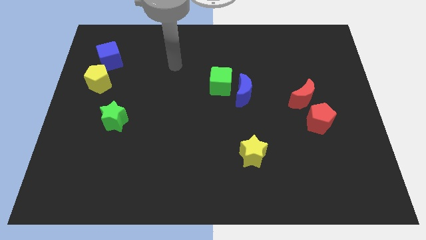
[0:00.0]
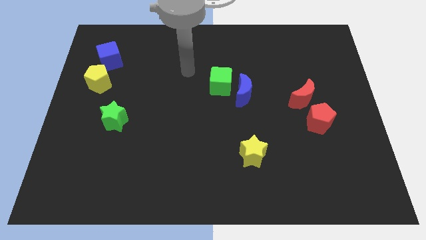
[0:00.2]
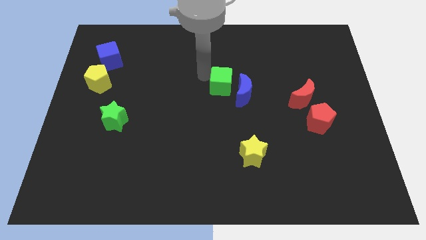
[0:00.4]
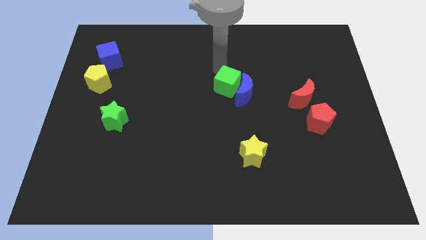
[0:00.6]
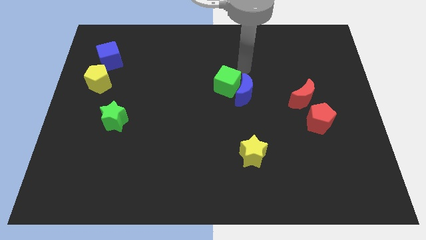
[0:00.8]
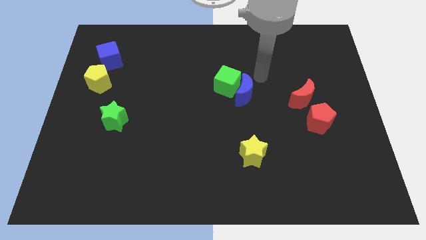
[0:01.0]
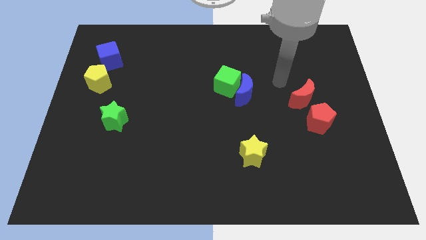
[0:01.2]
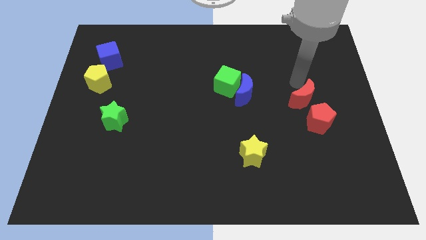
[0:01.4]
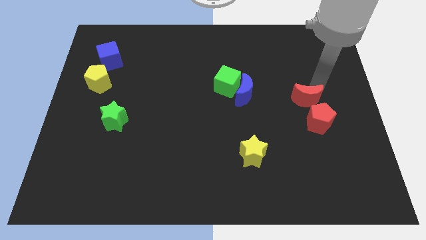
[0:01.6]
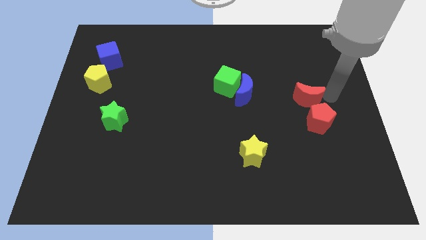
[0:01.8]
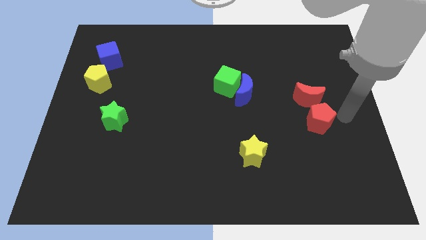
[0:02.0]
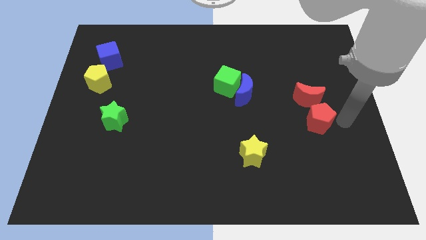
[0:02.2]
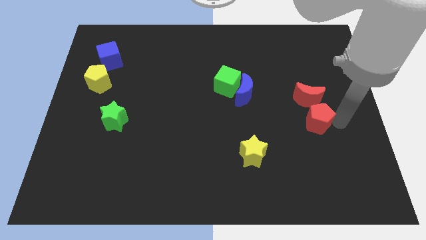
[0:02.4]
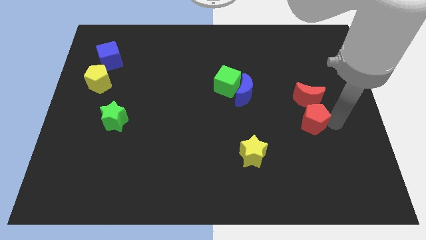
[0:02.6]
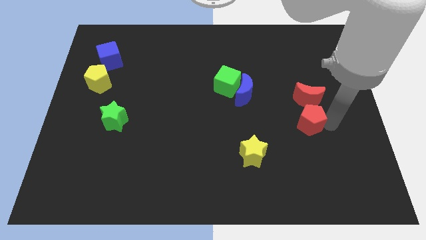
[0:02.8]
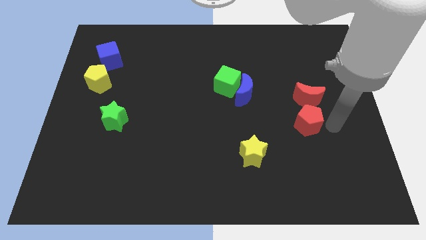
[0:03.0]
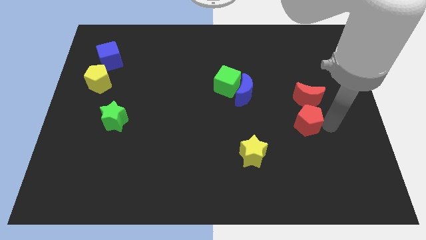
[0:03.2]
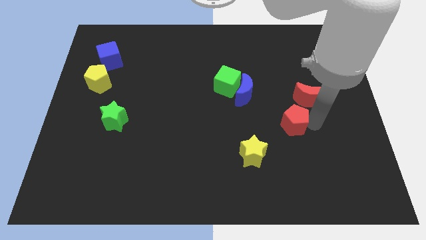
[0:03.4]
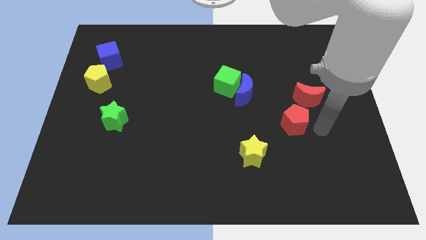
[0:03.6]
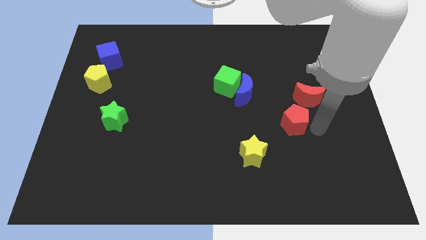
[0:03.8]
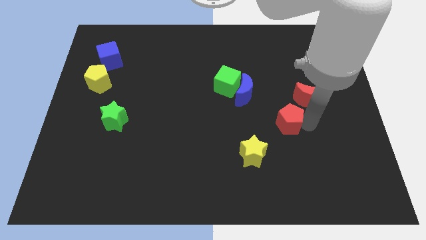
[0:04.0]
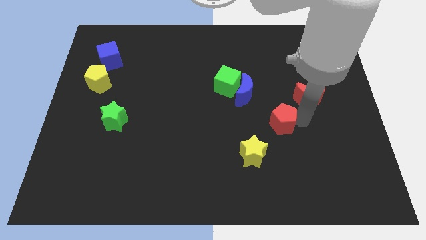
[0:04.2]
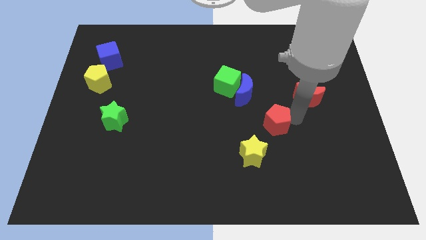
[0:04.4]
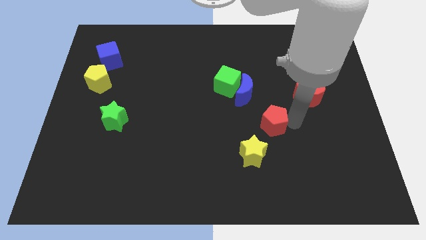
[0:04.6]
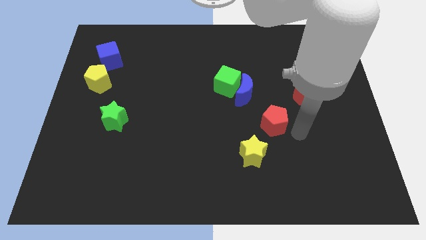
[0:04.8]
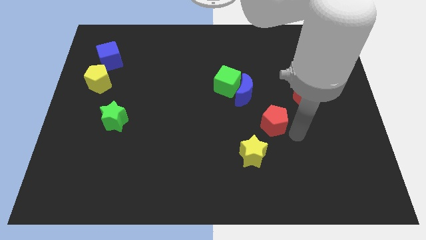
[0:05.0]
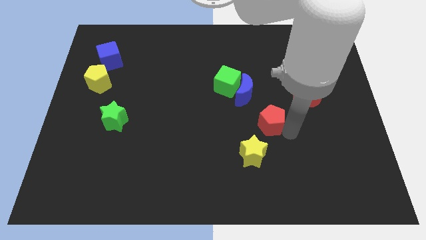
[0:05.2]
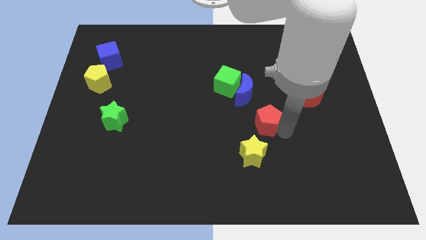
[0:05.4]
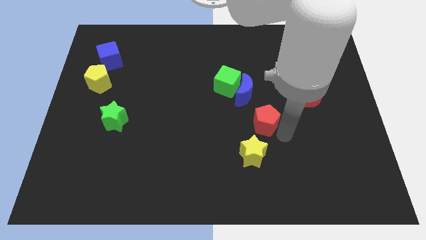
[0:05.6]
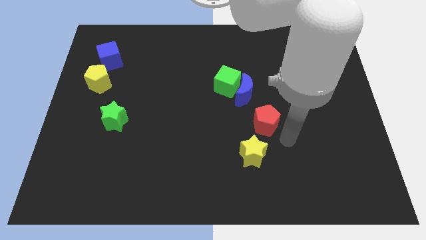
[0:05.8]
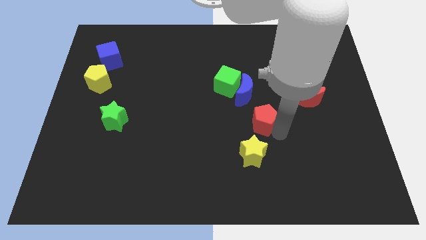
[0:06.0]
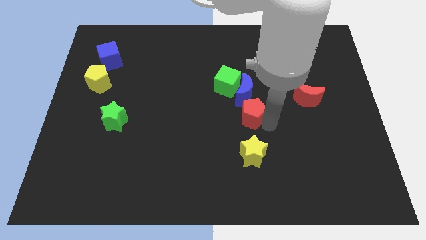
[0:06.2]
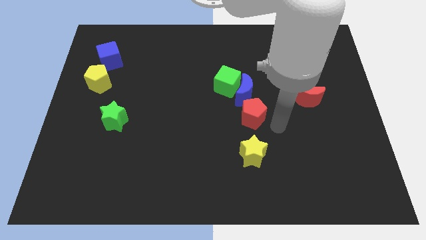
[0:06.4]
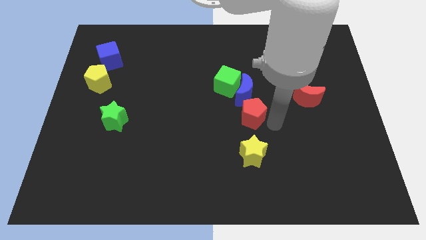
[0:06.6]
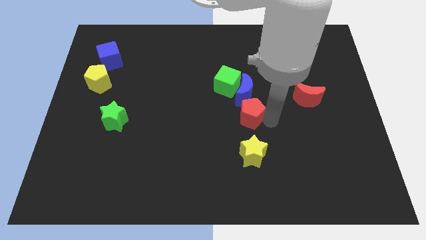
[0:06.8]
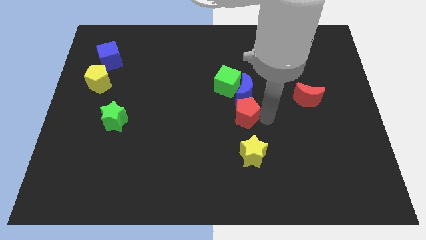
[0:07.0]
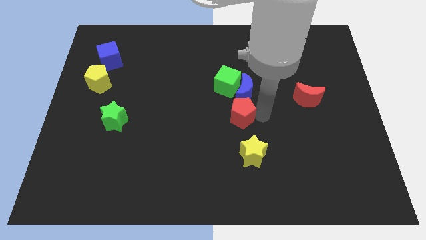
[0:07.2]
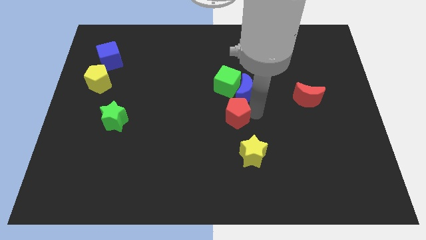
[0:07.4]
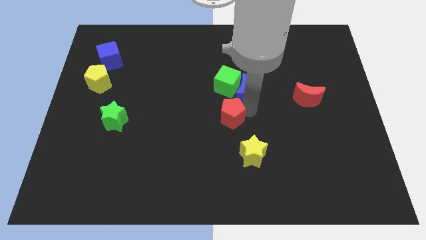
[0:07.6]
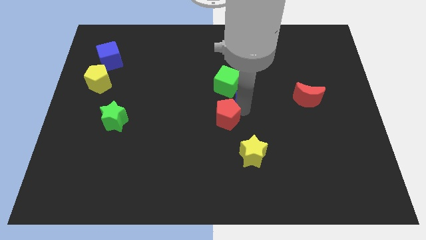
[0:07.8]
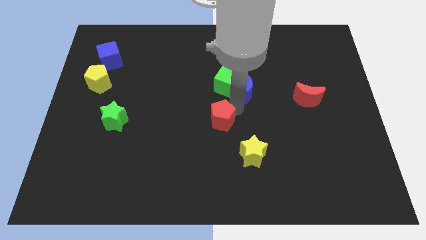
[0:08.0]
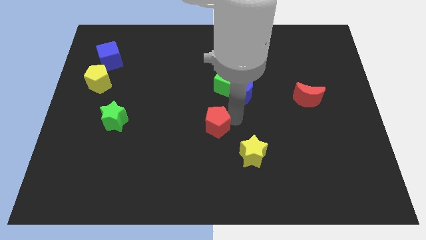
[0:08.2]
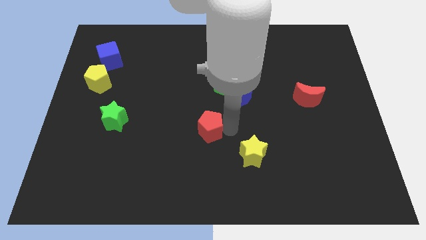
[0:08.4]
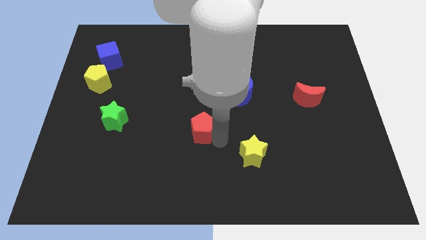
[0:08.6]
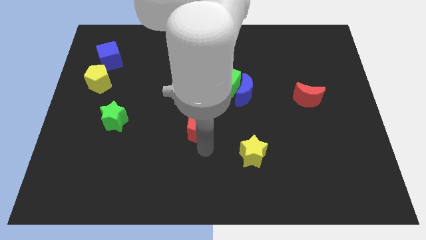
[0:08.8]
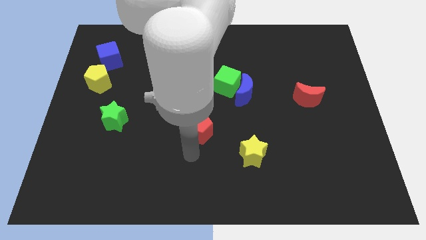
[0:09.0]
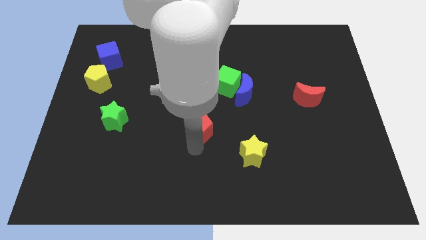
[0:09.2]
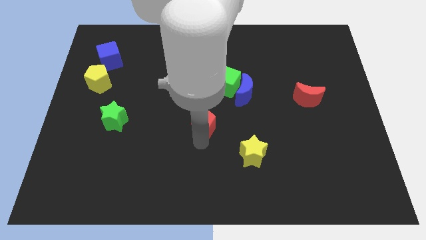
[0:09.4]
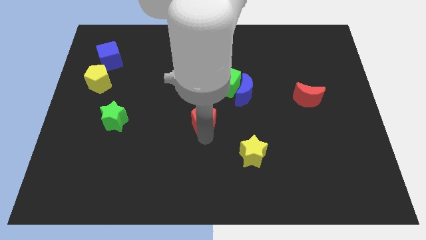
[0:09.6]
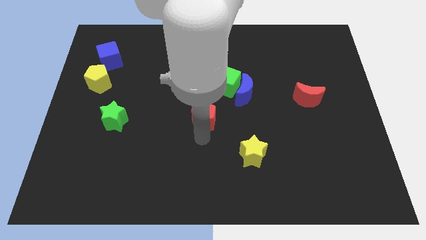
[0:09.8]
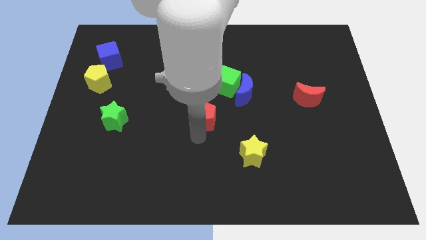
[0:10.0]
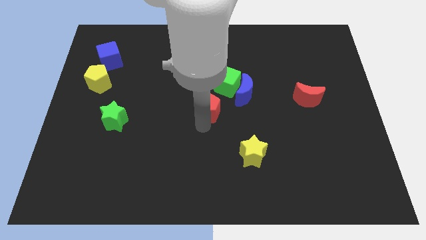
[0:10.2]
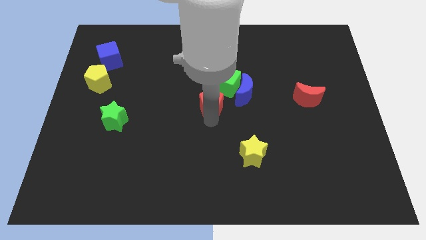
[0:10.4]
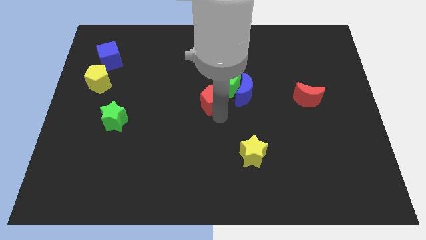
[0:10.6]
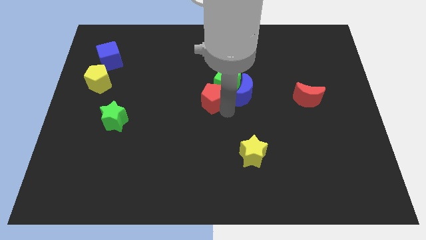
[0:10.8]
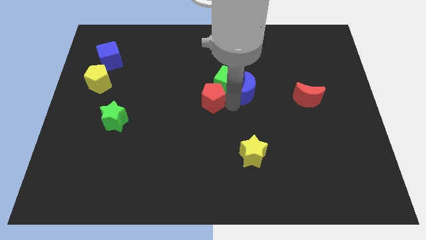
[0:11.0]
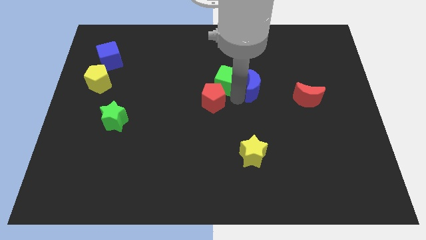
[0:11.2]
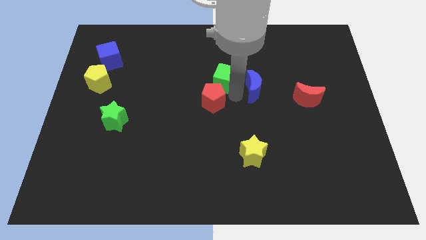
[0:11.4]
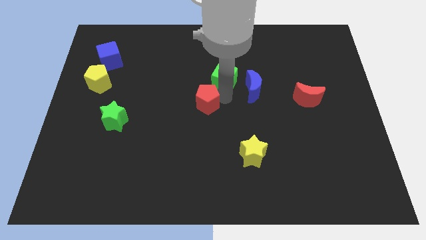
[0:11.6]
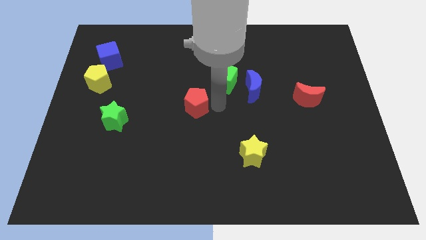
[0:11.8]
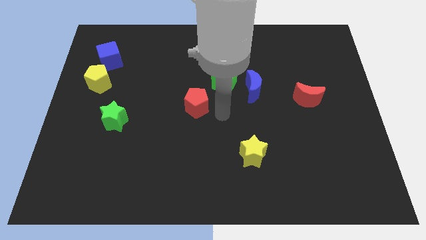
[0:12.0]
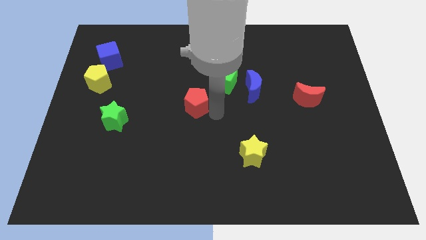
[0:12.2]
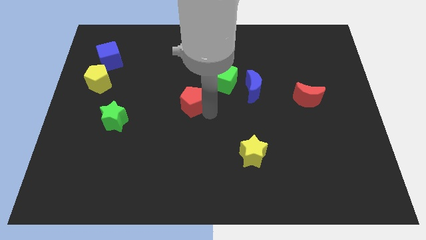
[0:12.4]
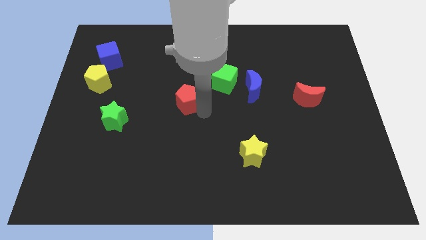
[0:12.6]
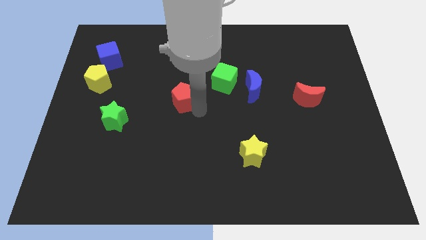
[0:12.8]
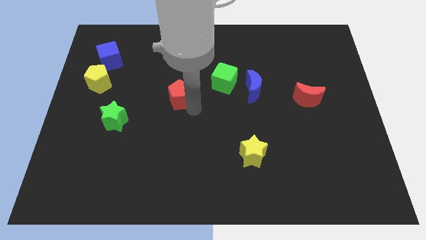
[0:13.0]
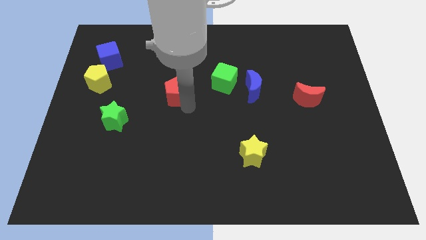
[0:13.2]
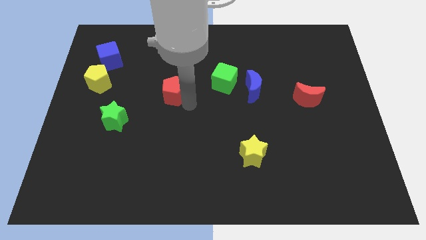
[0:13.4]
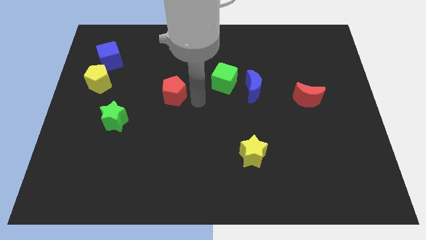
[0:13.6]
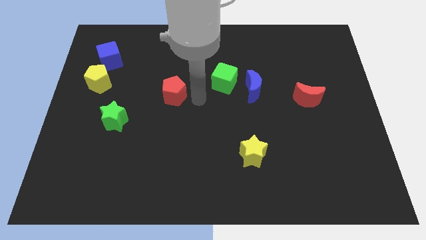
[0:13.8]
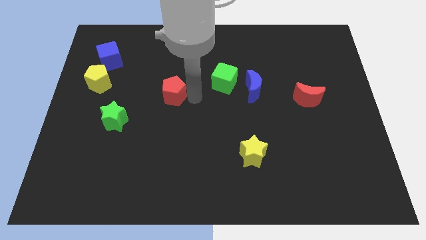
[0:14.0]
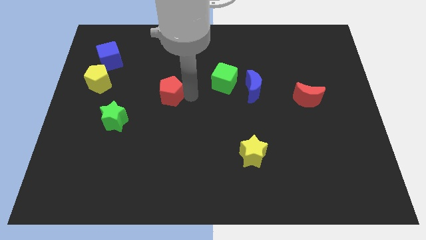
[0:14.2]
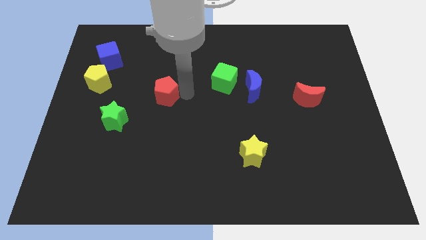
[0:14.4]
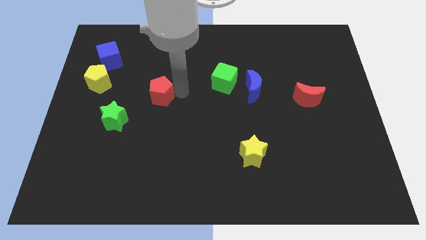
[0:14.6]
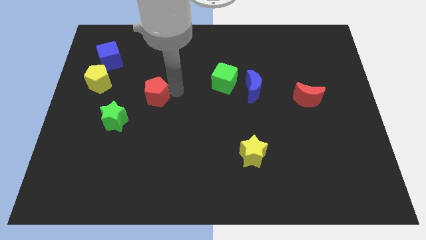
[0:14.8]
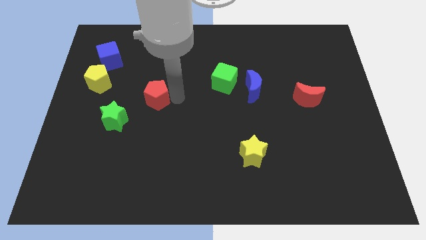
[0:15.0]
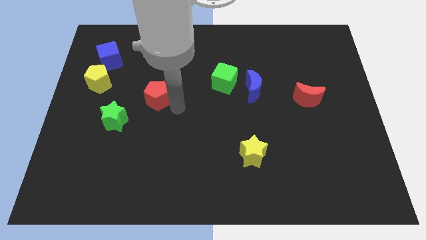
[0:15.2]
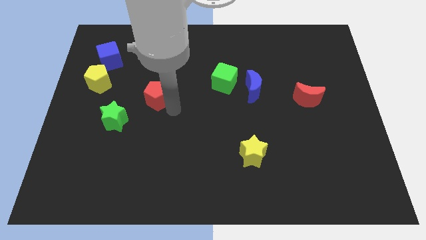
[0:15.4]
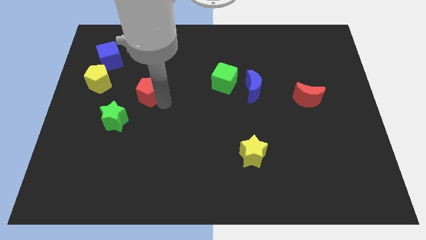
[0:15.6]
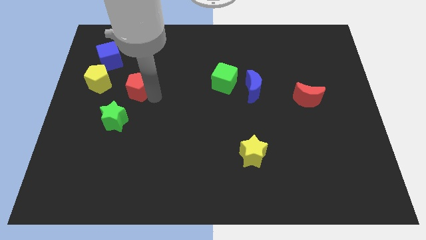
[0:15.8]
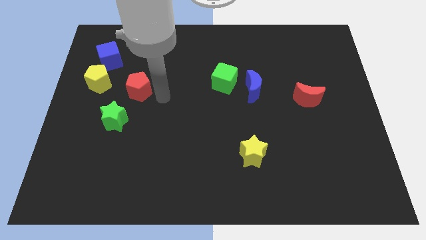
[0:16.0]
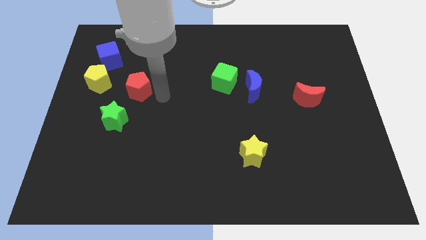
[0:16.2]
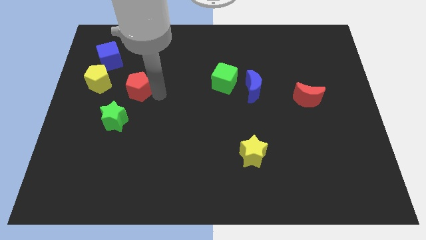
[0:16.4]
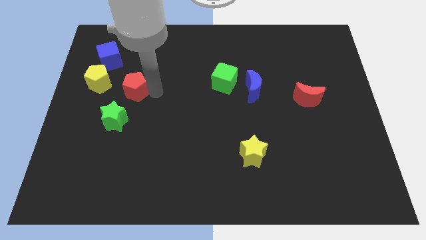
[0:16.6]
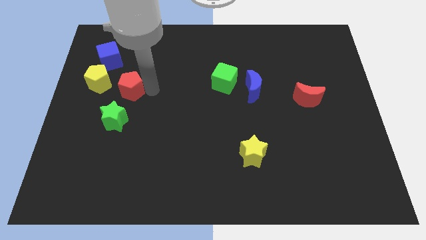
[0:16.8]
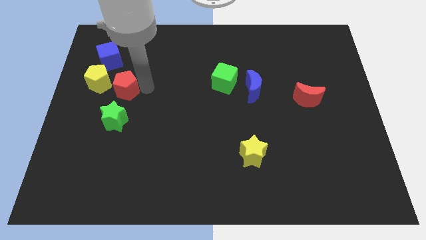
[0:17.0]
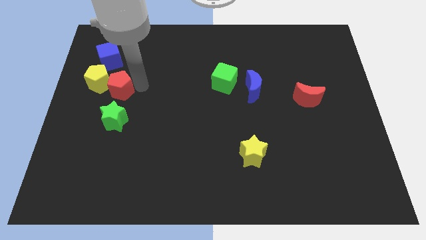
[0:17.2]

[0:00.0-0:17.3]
put the red pentagon towards the yellow pentagon
